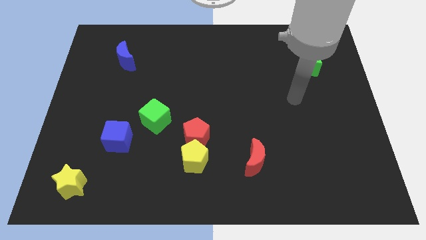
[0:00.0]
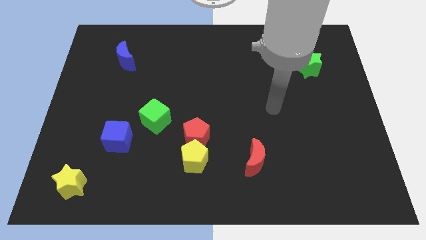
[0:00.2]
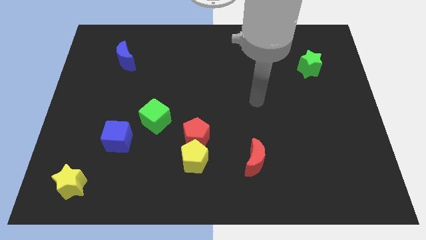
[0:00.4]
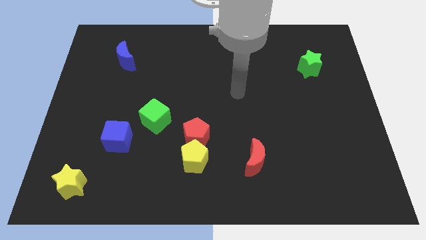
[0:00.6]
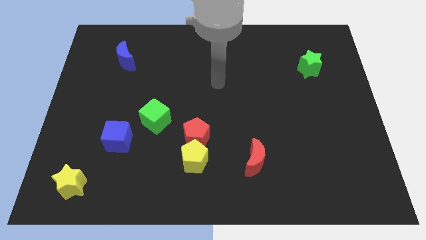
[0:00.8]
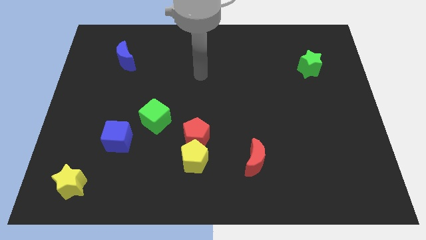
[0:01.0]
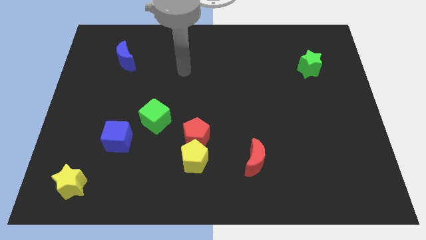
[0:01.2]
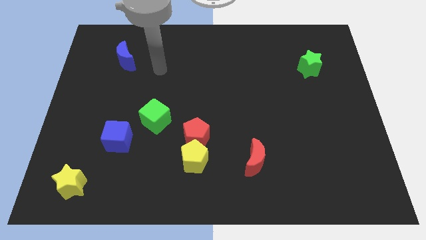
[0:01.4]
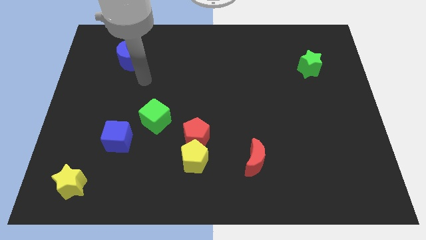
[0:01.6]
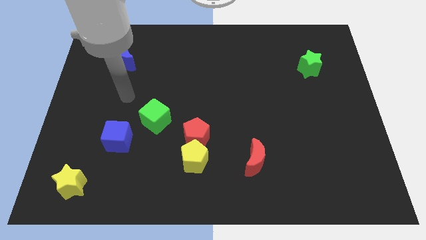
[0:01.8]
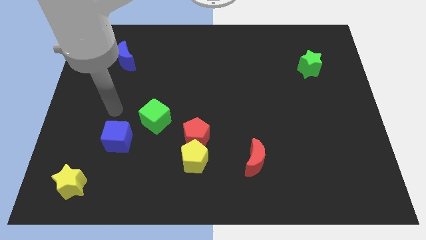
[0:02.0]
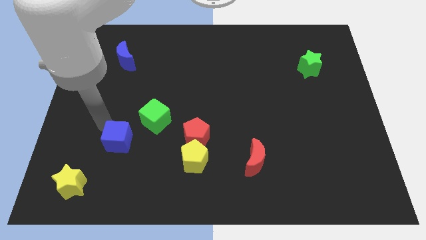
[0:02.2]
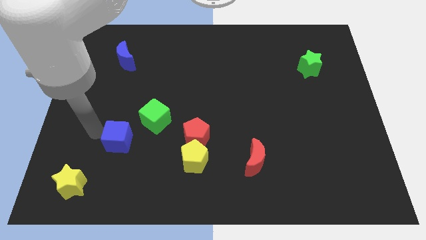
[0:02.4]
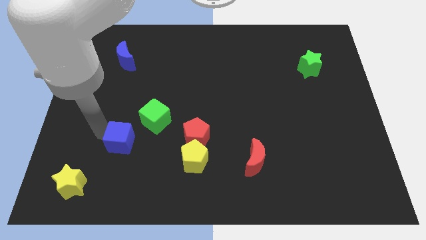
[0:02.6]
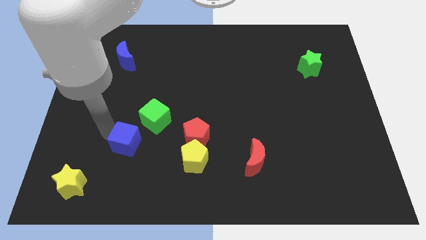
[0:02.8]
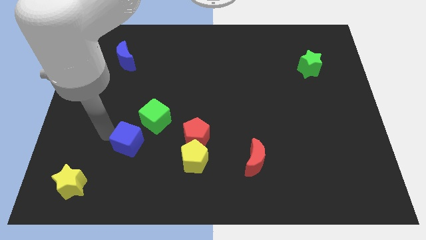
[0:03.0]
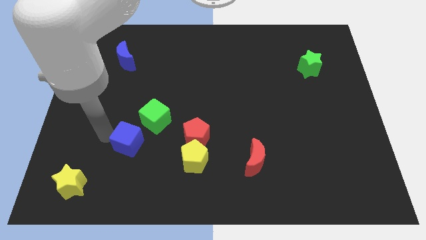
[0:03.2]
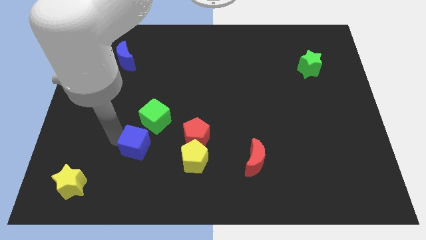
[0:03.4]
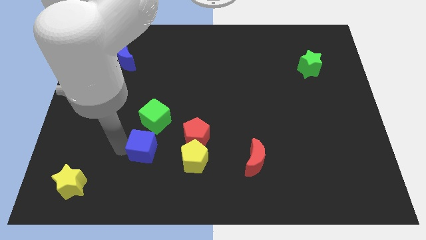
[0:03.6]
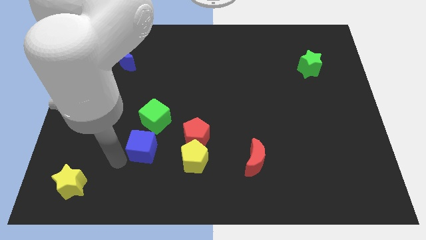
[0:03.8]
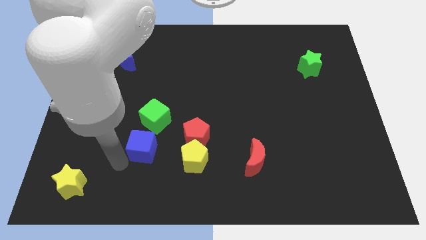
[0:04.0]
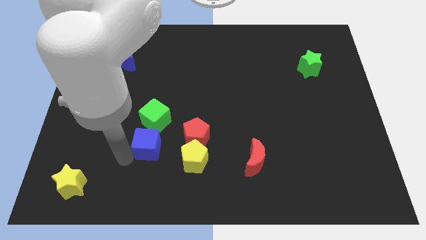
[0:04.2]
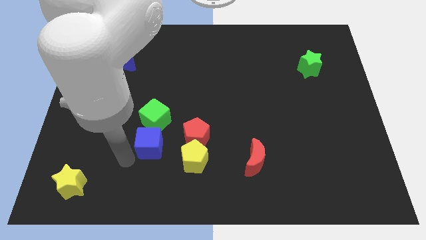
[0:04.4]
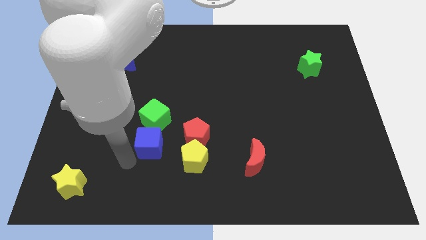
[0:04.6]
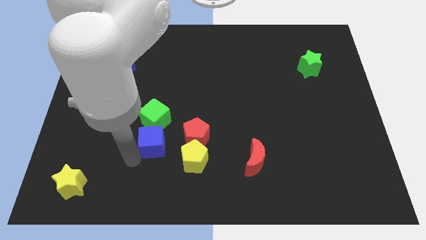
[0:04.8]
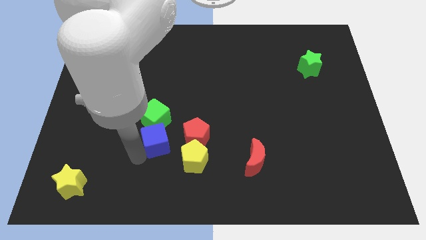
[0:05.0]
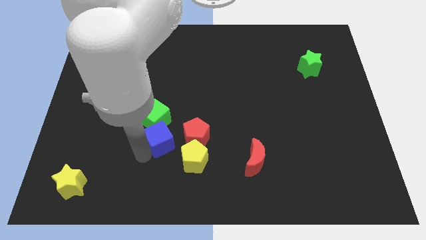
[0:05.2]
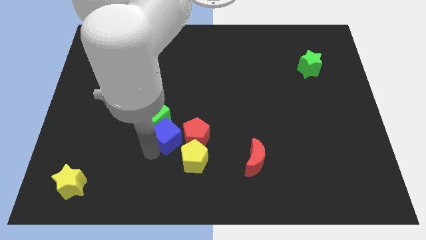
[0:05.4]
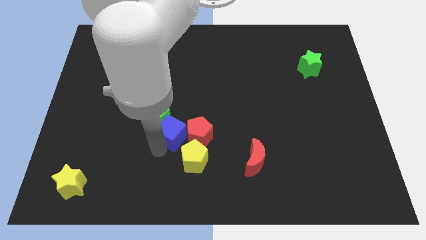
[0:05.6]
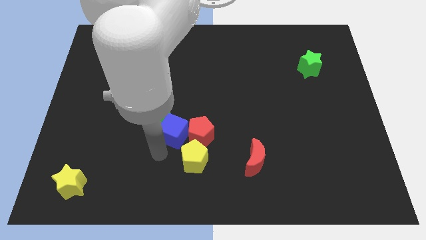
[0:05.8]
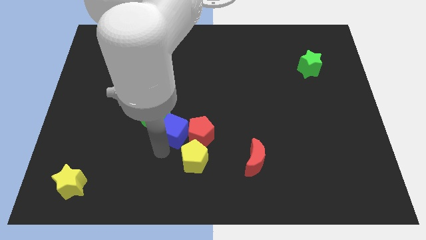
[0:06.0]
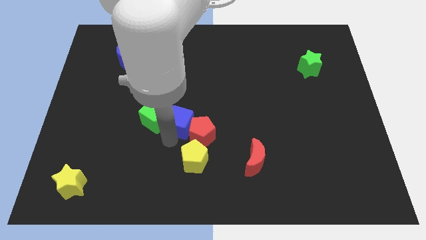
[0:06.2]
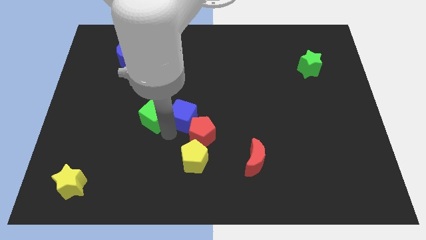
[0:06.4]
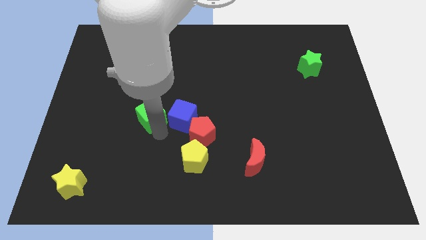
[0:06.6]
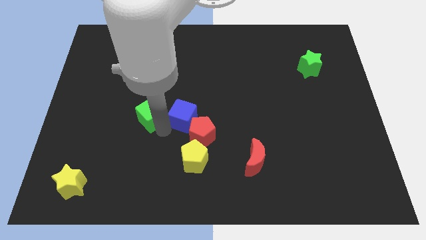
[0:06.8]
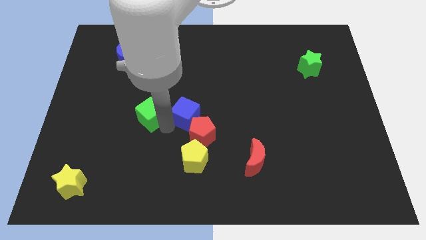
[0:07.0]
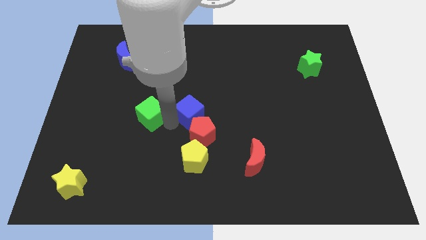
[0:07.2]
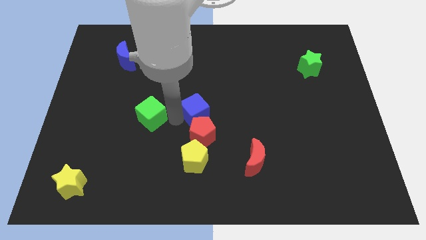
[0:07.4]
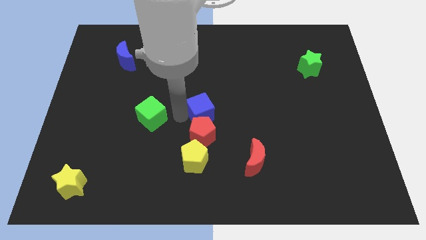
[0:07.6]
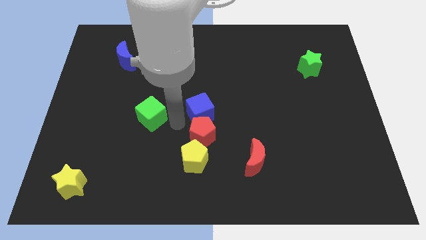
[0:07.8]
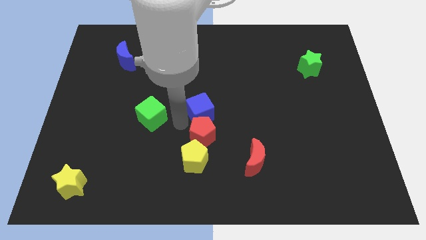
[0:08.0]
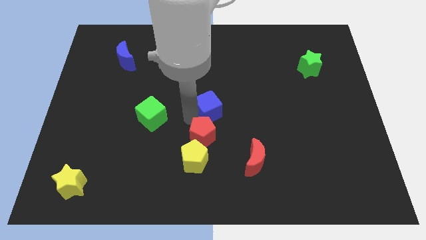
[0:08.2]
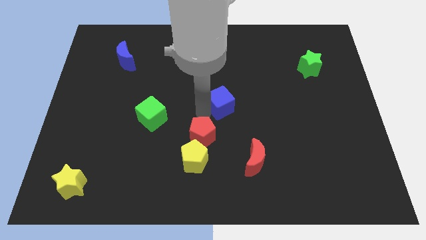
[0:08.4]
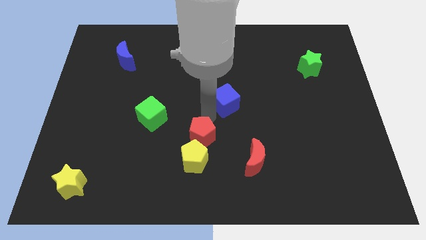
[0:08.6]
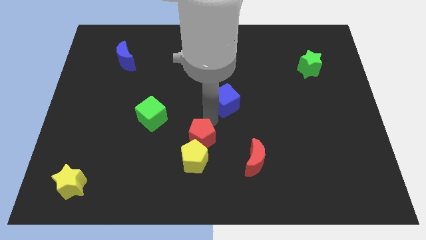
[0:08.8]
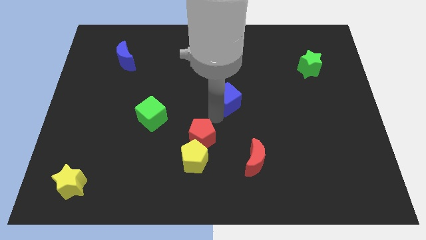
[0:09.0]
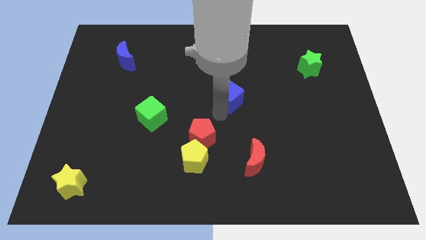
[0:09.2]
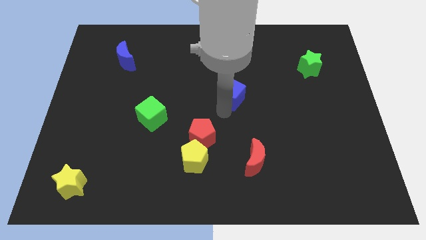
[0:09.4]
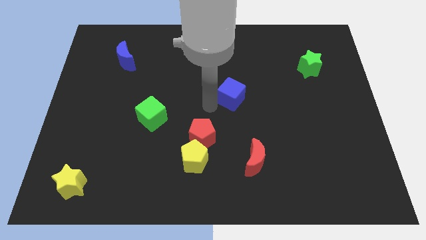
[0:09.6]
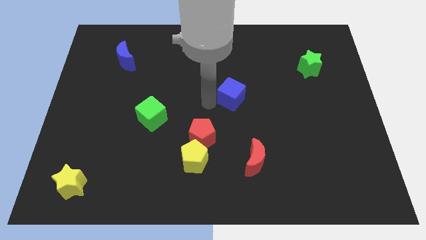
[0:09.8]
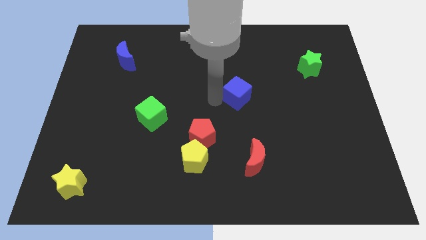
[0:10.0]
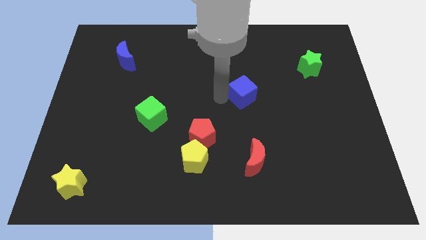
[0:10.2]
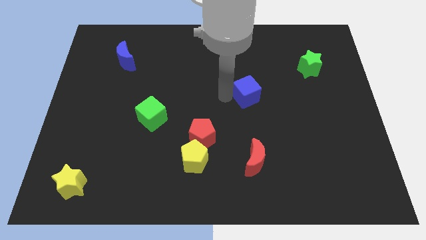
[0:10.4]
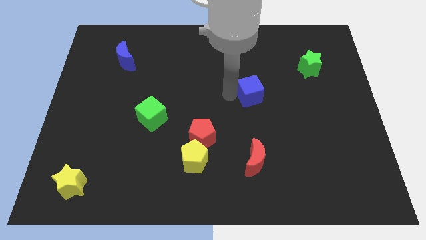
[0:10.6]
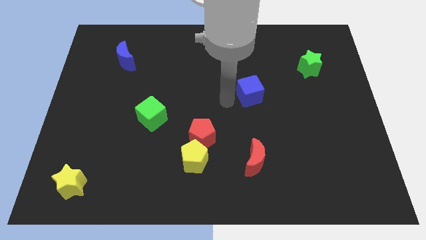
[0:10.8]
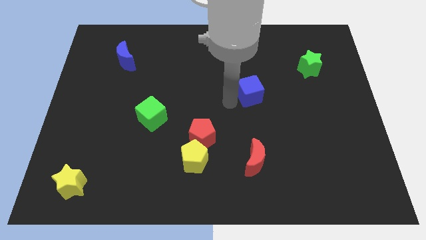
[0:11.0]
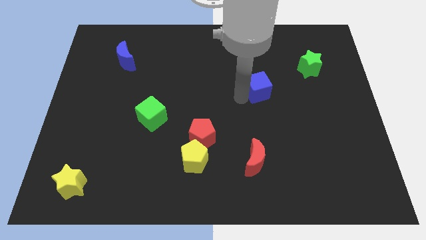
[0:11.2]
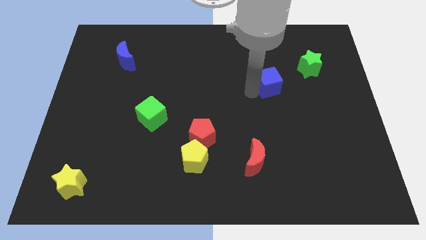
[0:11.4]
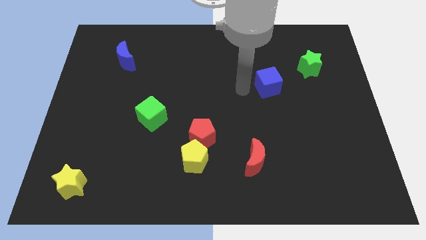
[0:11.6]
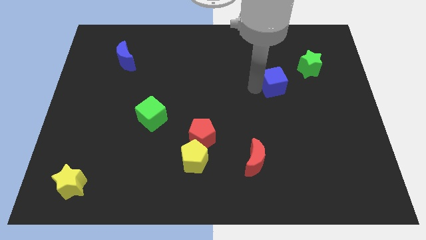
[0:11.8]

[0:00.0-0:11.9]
move the blue cube to the bottom left side of the green star

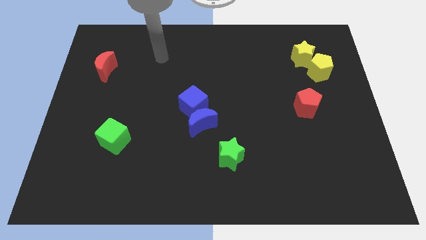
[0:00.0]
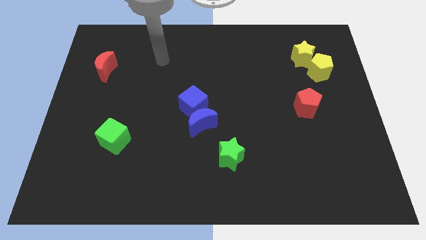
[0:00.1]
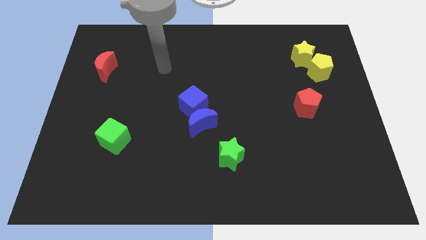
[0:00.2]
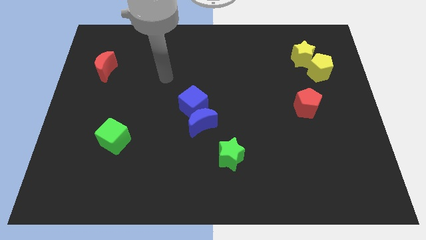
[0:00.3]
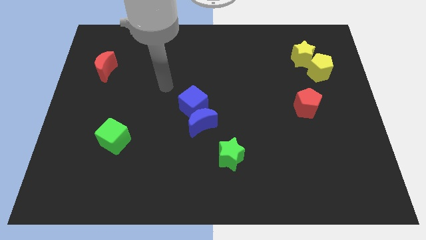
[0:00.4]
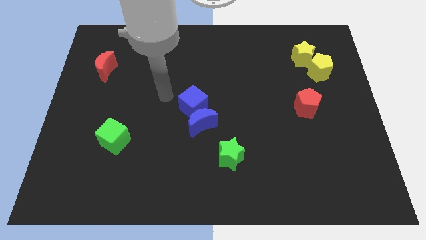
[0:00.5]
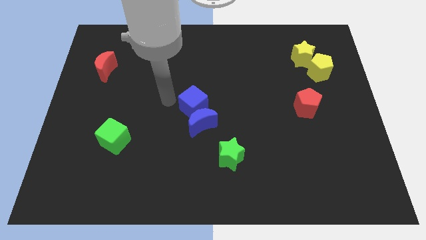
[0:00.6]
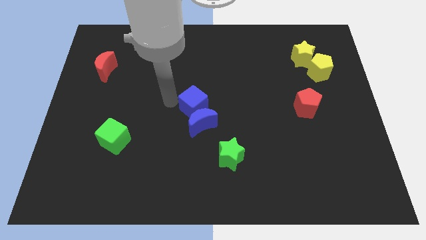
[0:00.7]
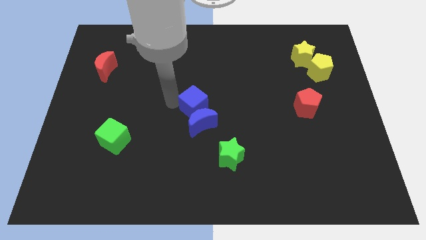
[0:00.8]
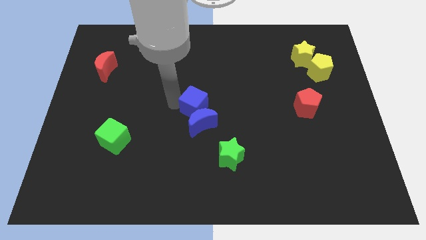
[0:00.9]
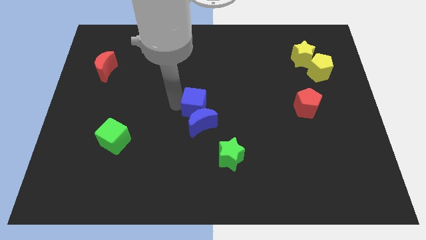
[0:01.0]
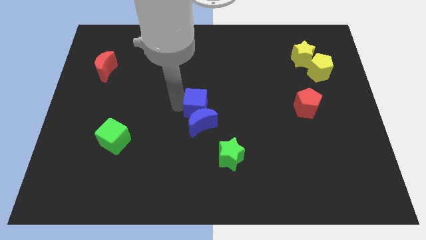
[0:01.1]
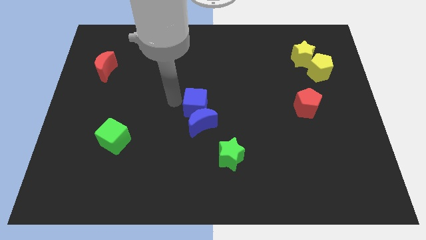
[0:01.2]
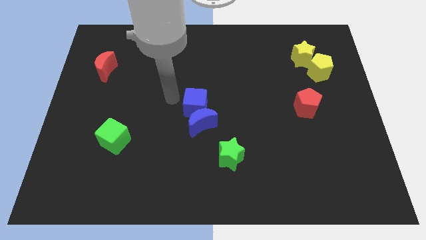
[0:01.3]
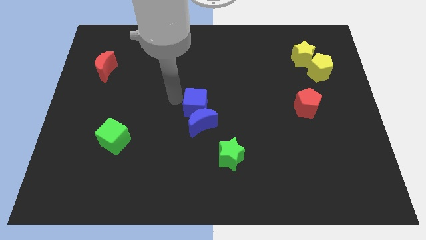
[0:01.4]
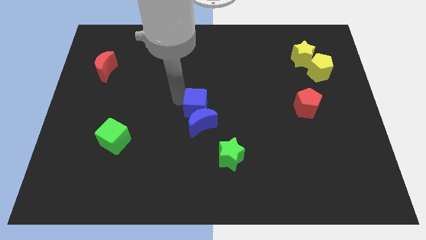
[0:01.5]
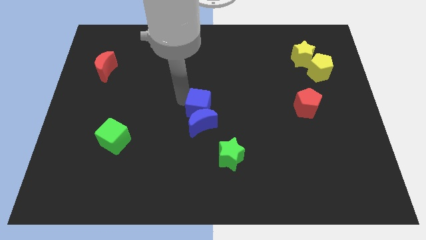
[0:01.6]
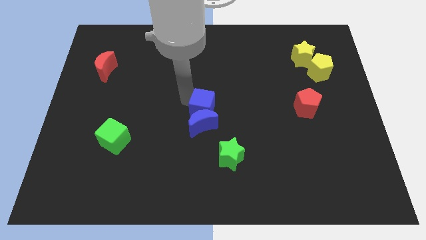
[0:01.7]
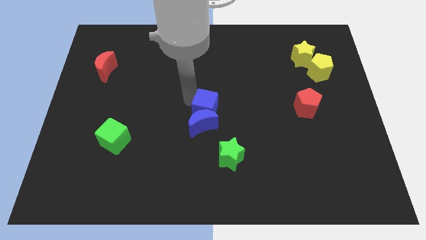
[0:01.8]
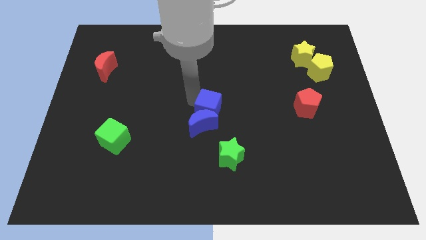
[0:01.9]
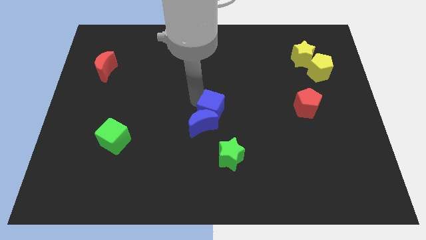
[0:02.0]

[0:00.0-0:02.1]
push the blue cube to the top side of the green star
